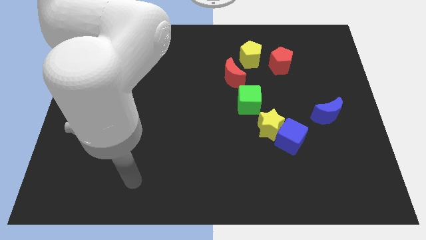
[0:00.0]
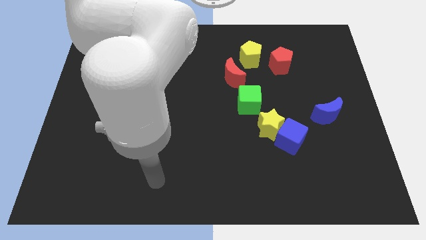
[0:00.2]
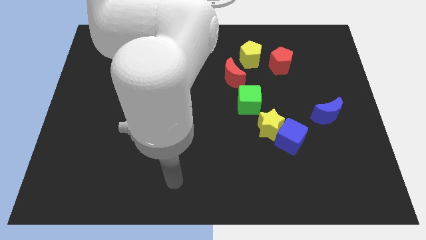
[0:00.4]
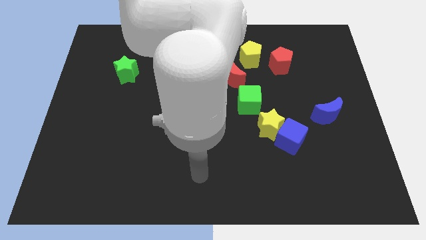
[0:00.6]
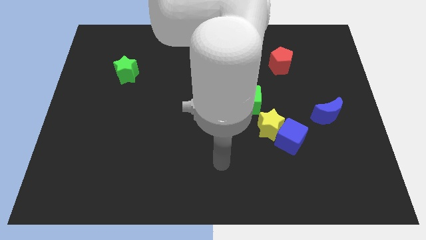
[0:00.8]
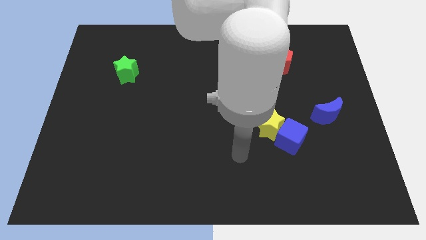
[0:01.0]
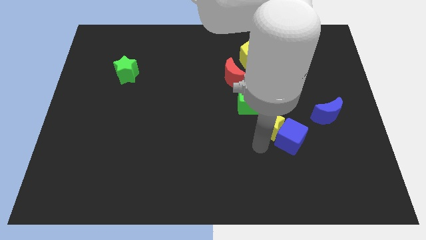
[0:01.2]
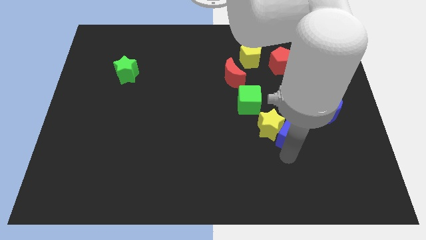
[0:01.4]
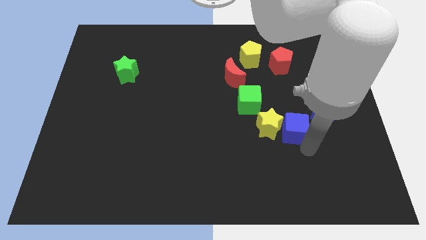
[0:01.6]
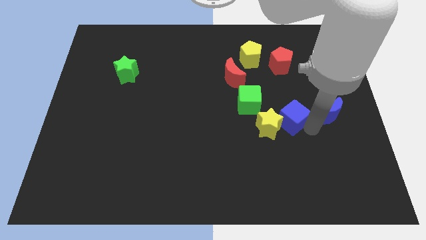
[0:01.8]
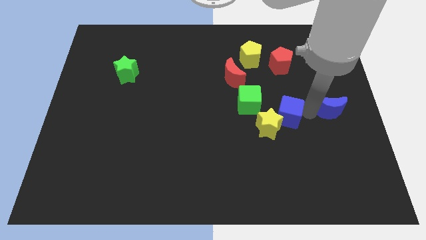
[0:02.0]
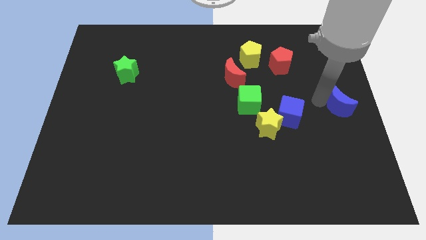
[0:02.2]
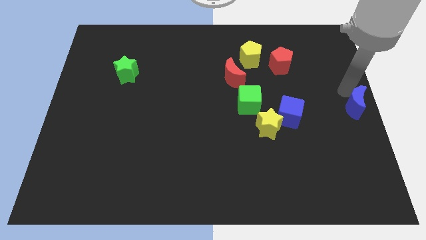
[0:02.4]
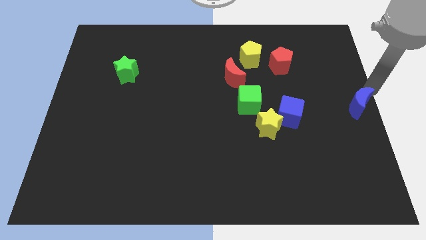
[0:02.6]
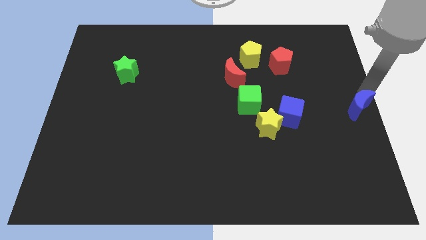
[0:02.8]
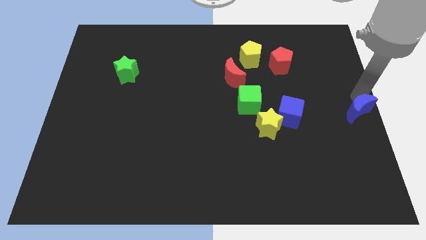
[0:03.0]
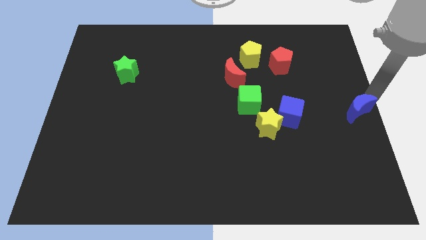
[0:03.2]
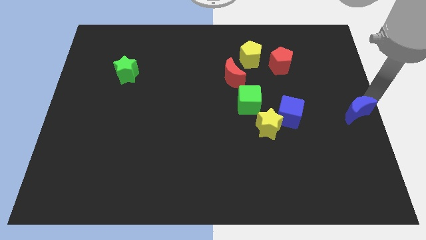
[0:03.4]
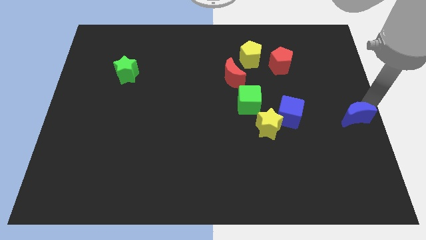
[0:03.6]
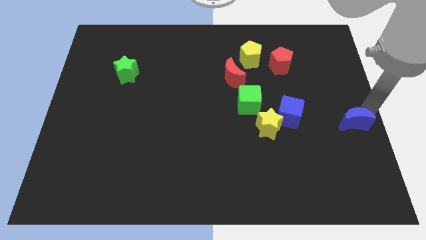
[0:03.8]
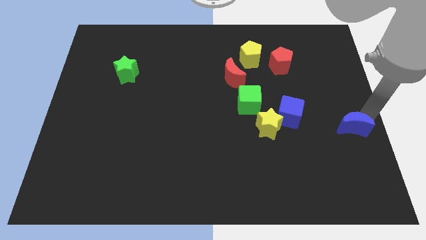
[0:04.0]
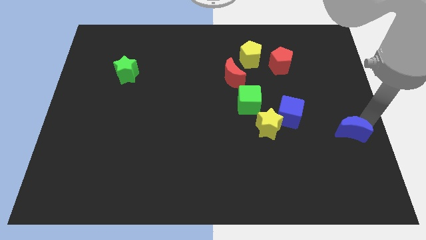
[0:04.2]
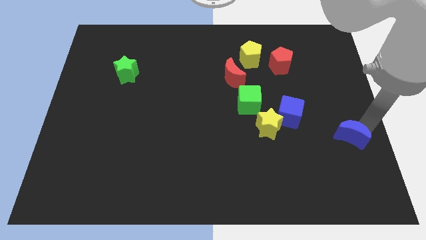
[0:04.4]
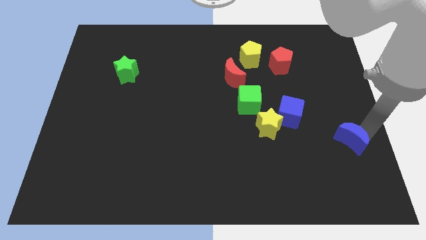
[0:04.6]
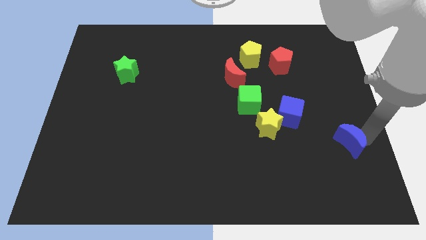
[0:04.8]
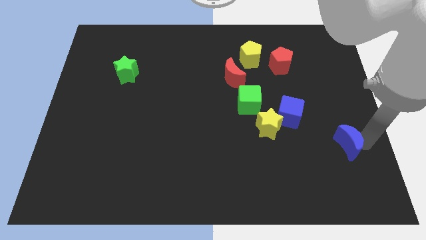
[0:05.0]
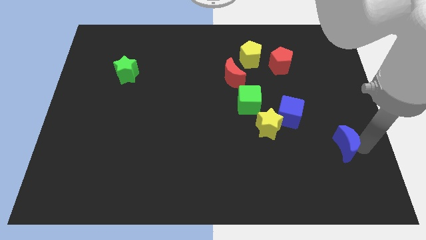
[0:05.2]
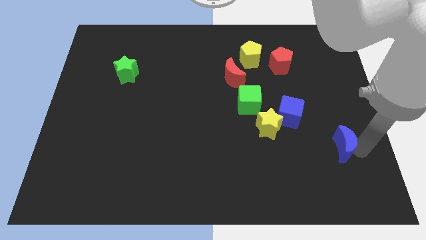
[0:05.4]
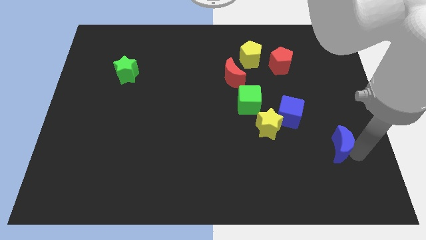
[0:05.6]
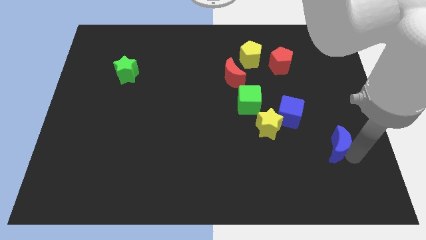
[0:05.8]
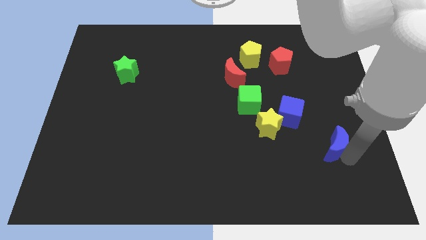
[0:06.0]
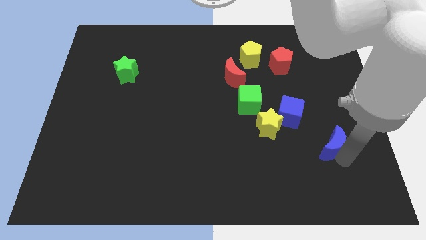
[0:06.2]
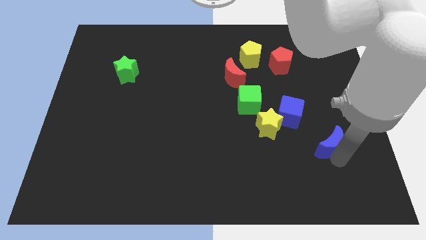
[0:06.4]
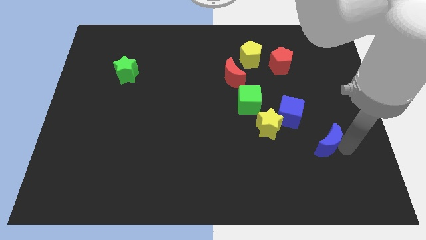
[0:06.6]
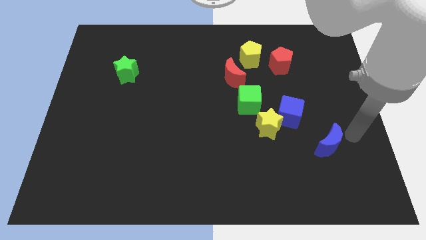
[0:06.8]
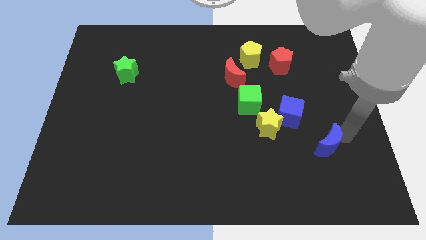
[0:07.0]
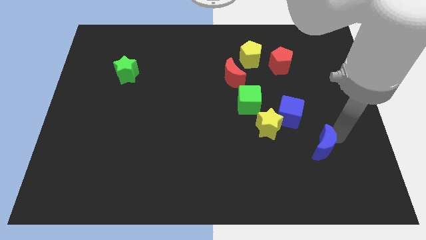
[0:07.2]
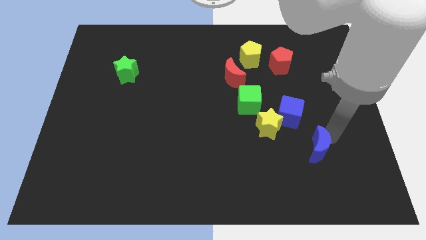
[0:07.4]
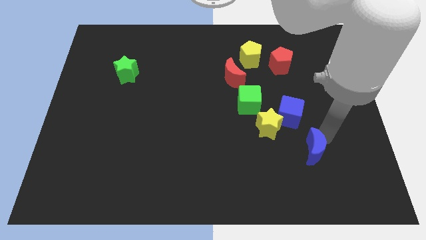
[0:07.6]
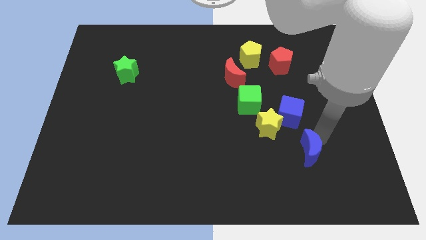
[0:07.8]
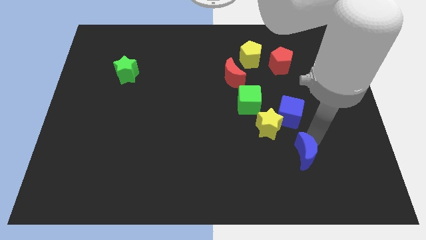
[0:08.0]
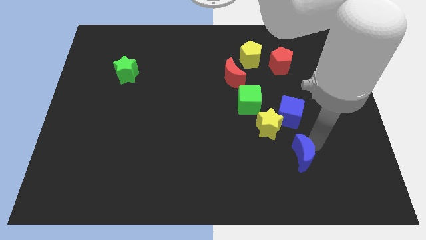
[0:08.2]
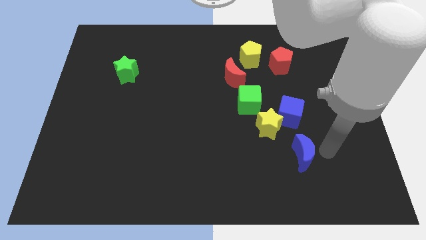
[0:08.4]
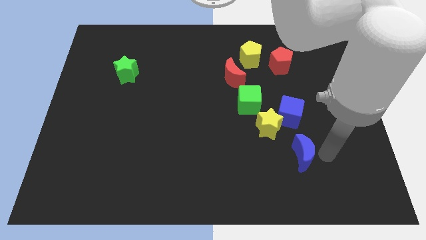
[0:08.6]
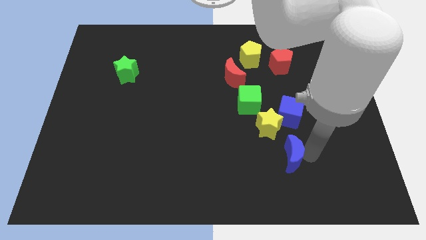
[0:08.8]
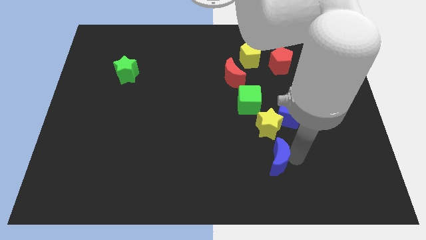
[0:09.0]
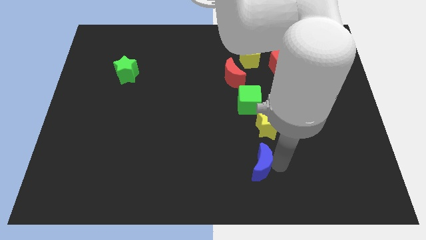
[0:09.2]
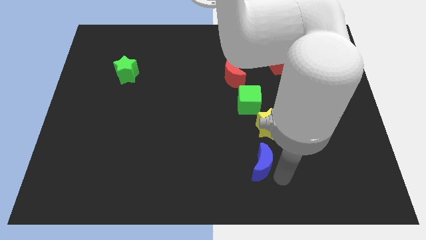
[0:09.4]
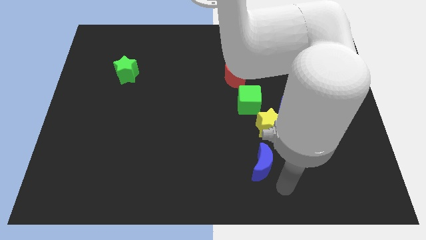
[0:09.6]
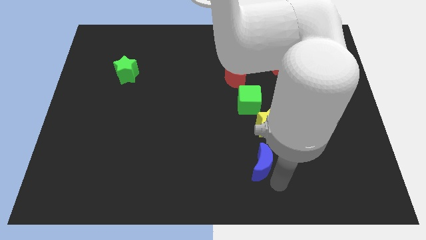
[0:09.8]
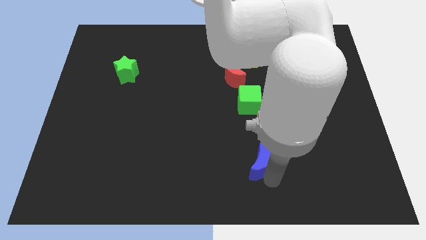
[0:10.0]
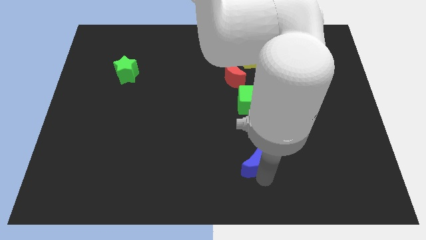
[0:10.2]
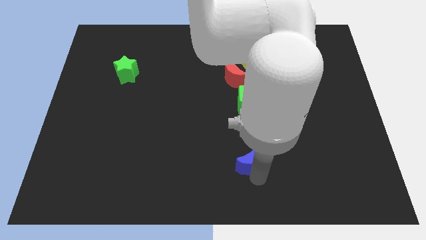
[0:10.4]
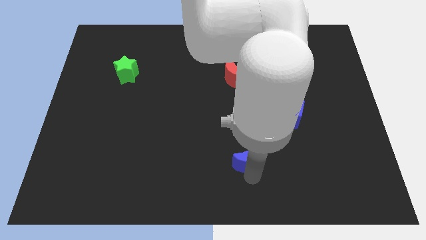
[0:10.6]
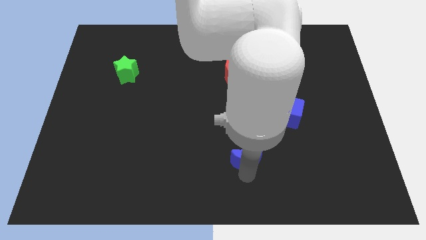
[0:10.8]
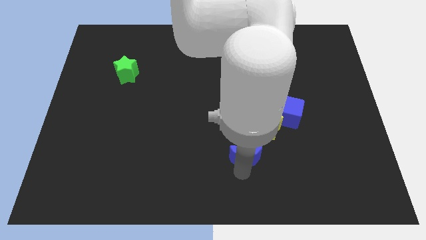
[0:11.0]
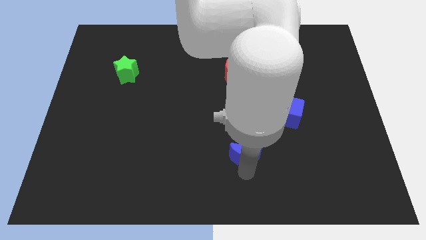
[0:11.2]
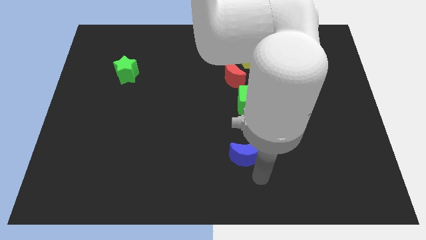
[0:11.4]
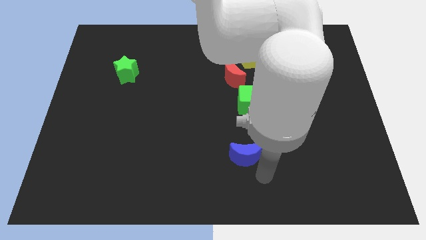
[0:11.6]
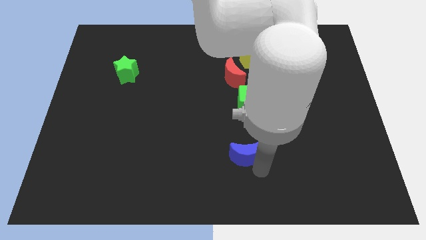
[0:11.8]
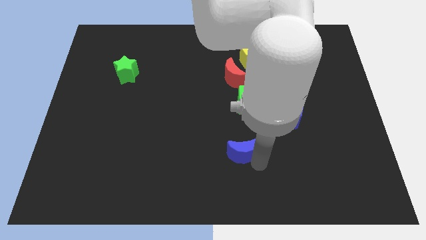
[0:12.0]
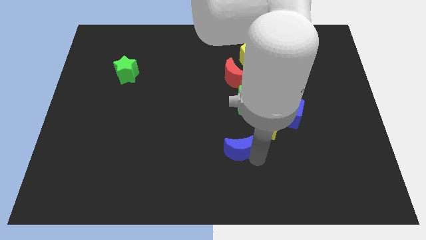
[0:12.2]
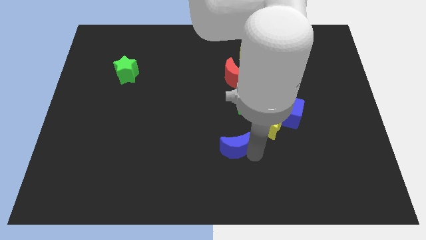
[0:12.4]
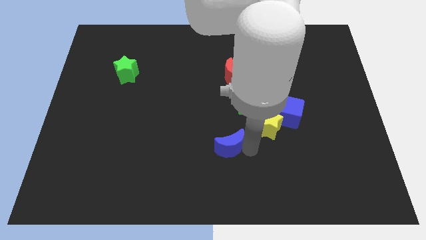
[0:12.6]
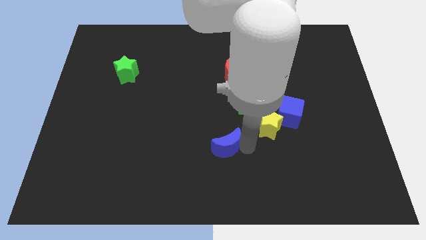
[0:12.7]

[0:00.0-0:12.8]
push the blue moon left

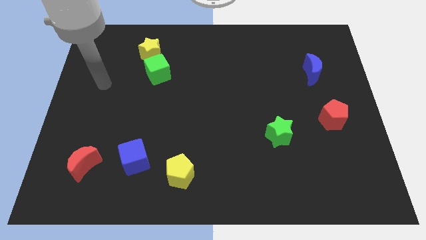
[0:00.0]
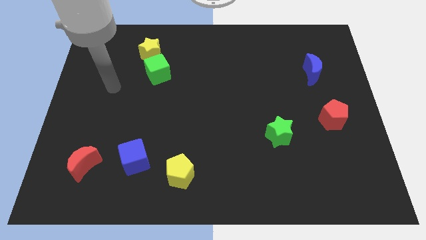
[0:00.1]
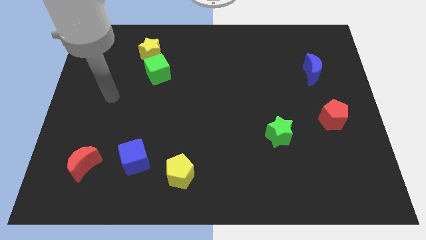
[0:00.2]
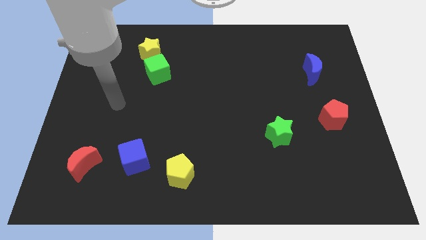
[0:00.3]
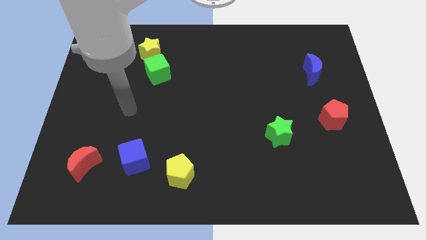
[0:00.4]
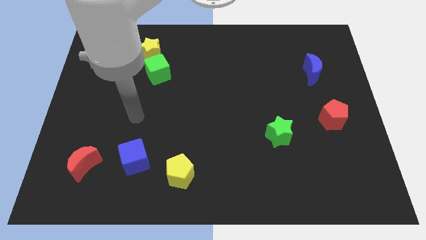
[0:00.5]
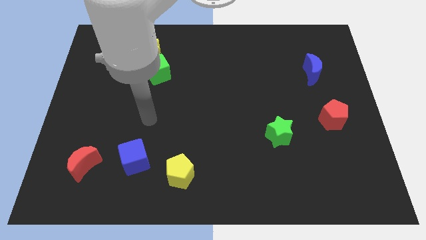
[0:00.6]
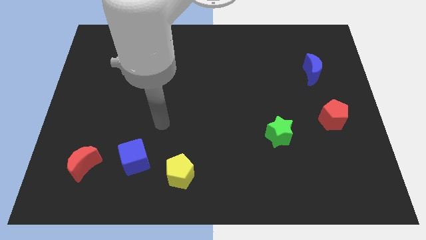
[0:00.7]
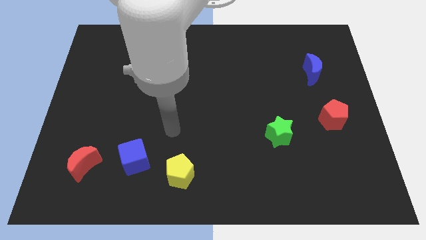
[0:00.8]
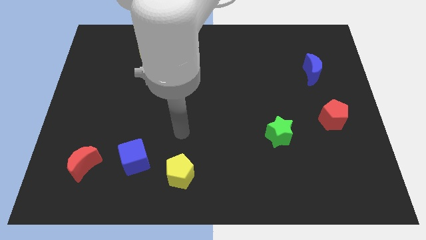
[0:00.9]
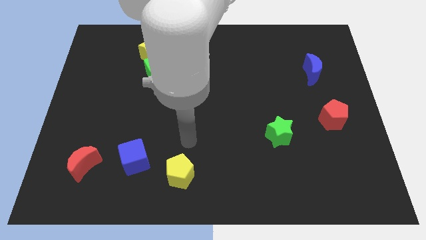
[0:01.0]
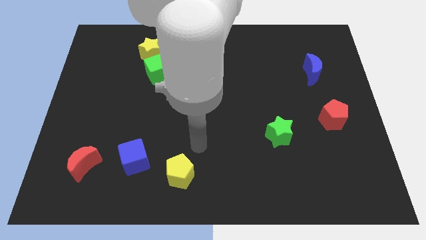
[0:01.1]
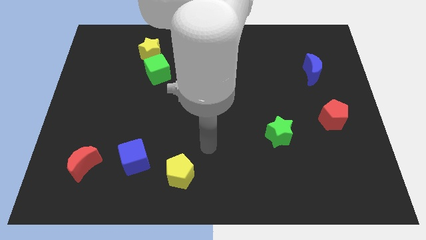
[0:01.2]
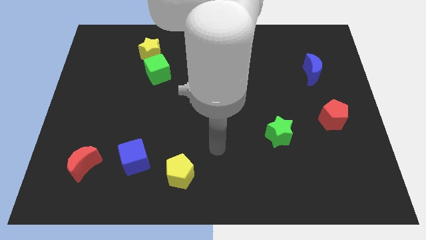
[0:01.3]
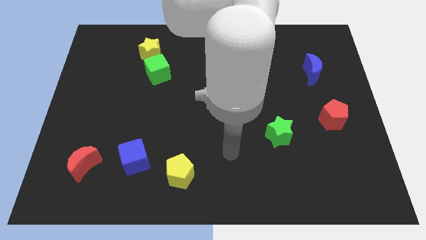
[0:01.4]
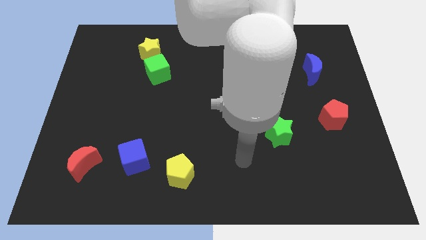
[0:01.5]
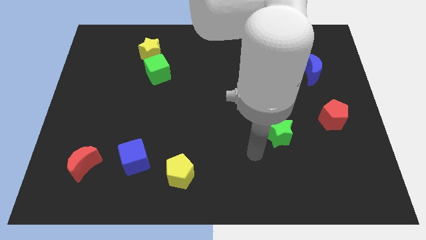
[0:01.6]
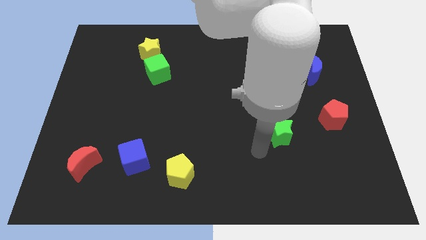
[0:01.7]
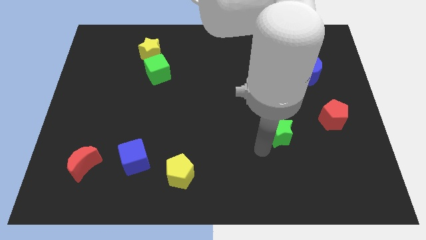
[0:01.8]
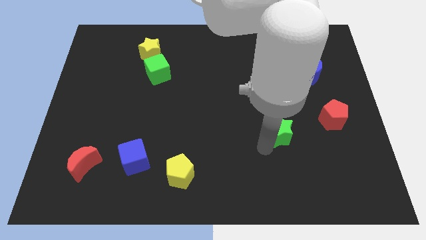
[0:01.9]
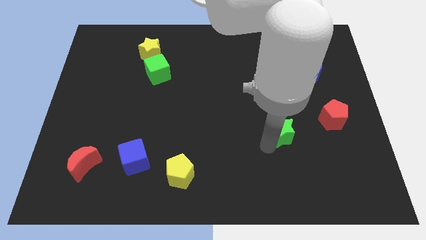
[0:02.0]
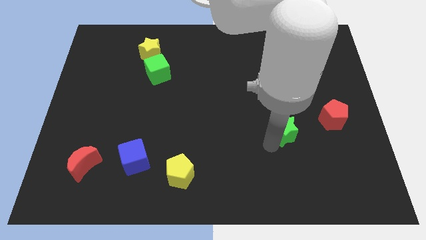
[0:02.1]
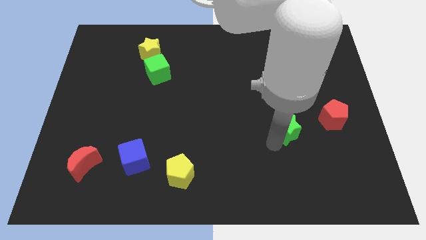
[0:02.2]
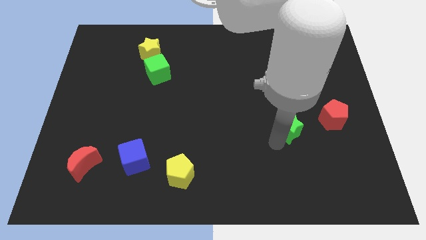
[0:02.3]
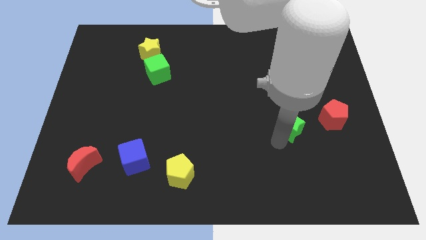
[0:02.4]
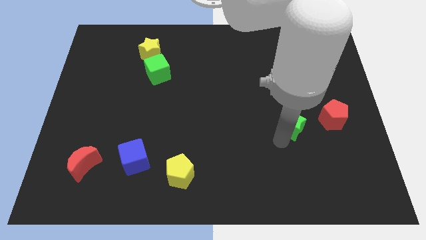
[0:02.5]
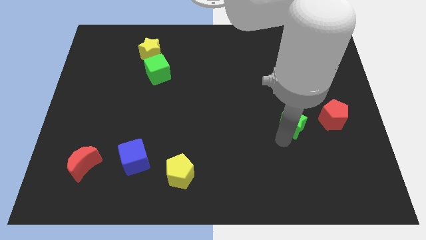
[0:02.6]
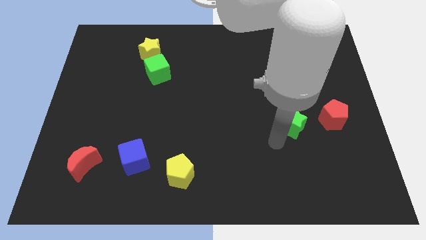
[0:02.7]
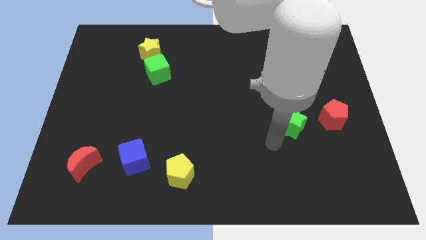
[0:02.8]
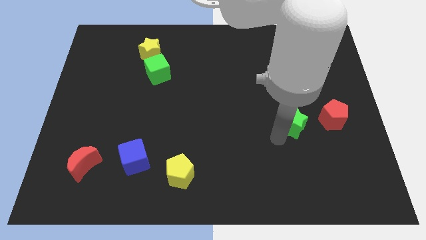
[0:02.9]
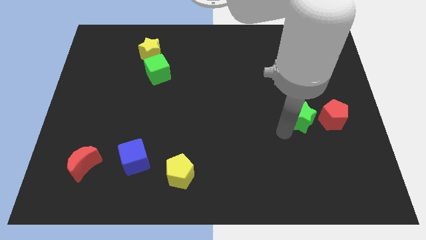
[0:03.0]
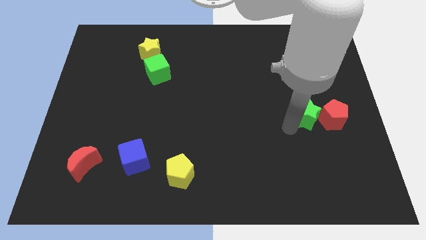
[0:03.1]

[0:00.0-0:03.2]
move the green star upwards and right somewhat
